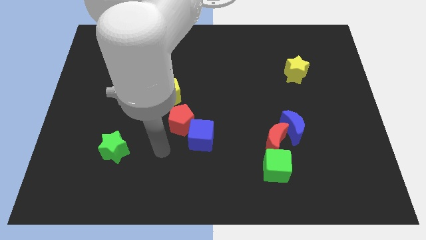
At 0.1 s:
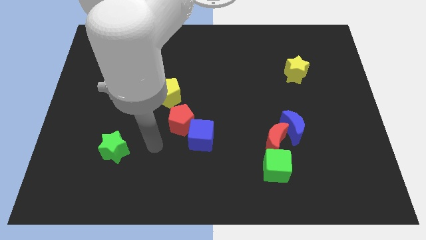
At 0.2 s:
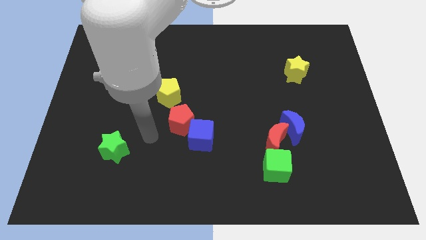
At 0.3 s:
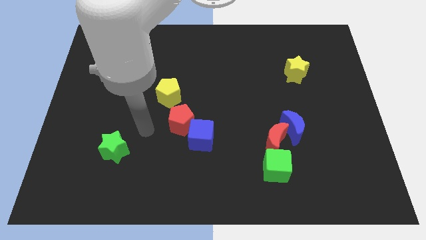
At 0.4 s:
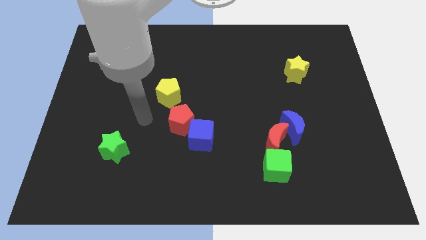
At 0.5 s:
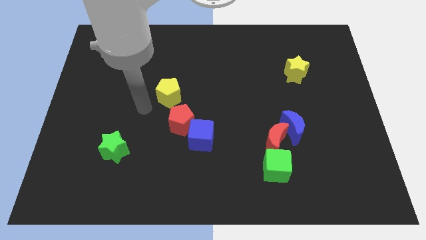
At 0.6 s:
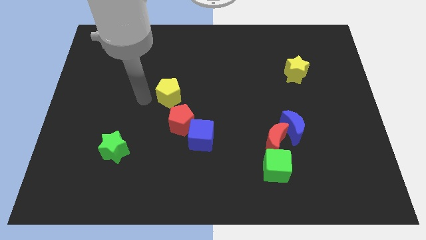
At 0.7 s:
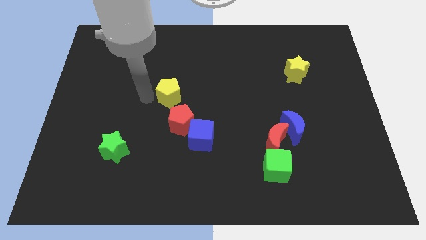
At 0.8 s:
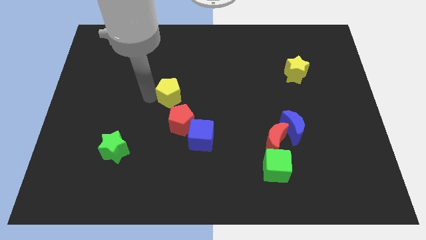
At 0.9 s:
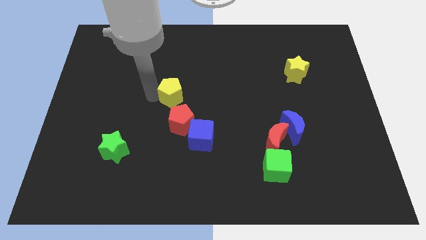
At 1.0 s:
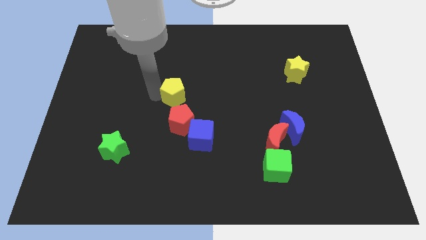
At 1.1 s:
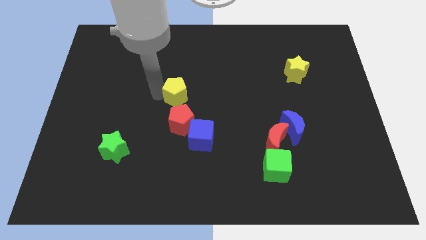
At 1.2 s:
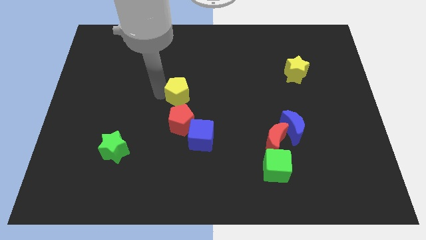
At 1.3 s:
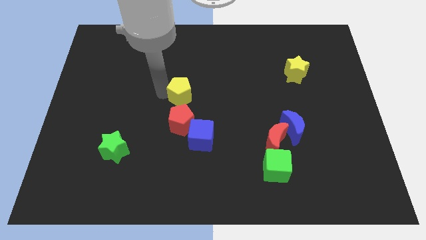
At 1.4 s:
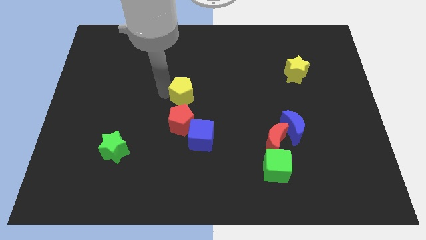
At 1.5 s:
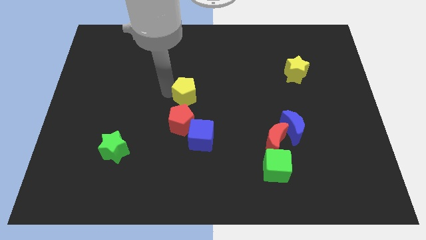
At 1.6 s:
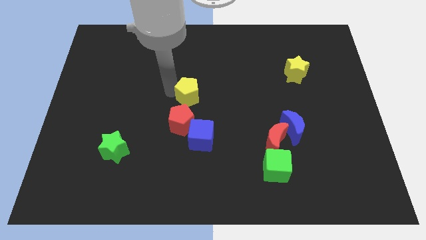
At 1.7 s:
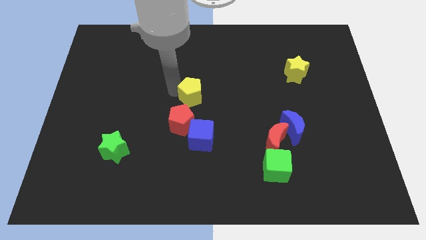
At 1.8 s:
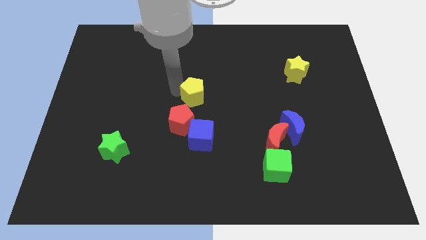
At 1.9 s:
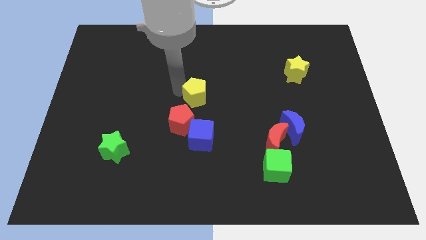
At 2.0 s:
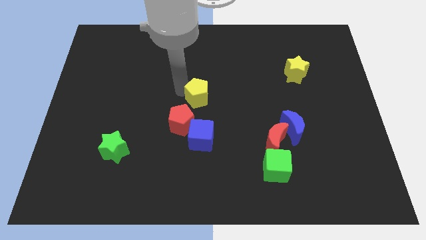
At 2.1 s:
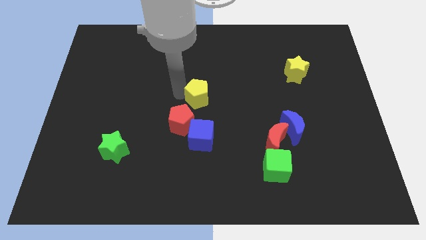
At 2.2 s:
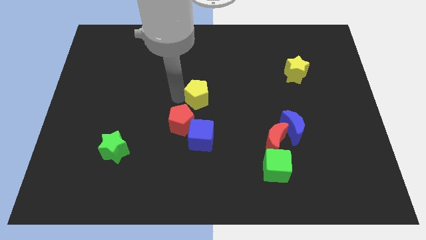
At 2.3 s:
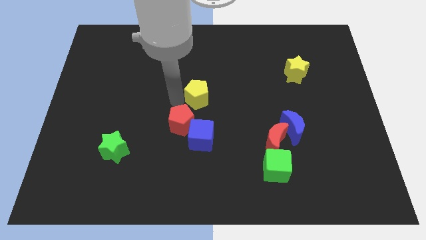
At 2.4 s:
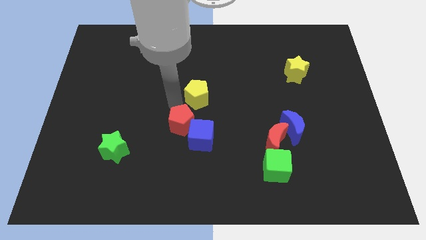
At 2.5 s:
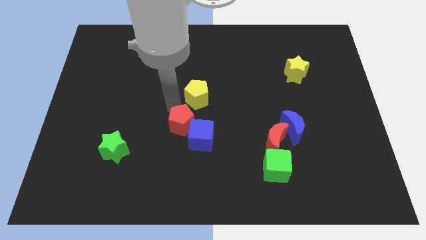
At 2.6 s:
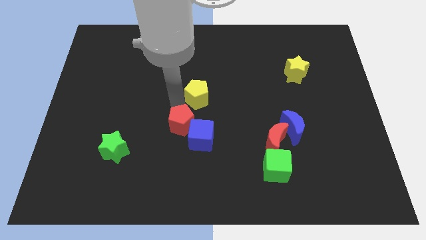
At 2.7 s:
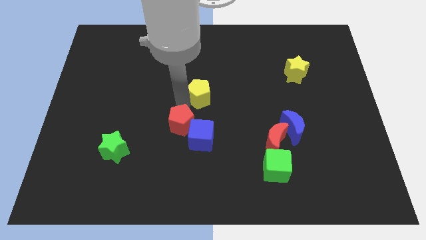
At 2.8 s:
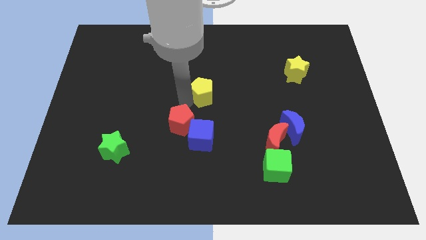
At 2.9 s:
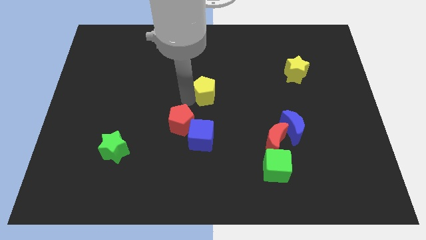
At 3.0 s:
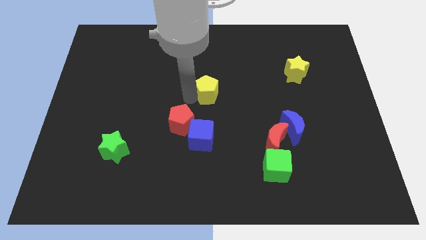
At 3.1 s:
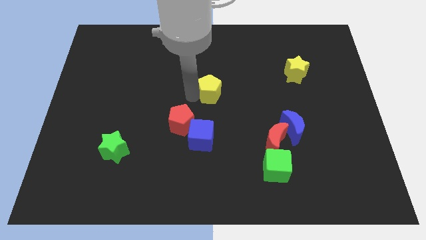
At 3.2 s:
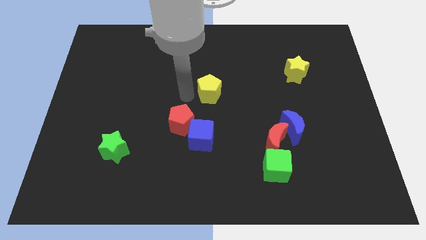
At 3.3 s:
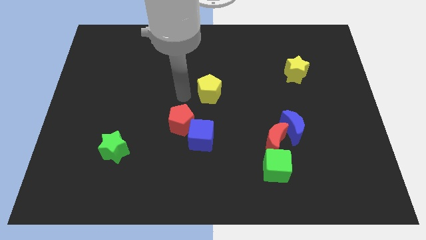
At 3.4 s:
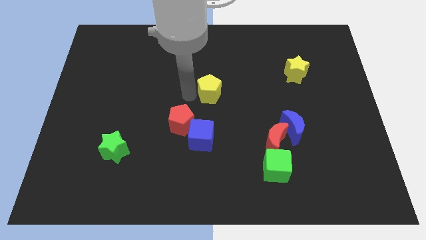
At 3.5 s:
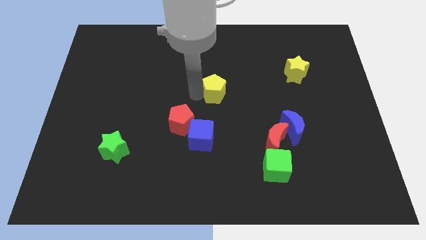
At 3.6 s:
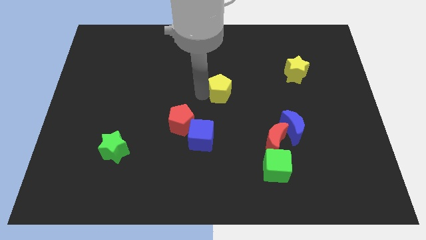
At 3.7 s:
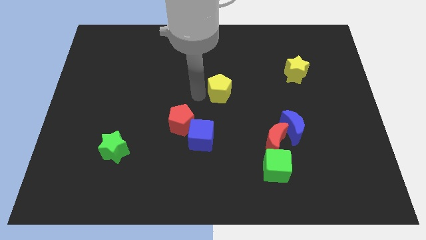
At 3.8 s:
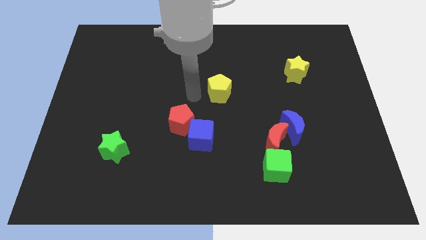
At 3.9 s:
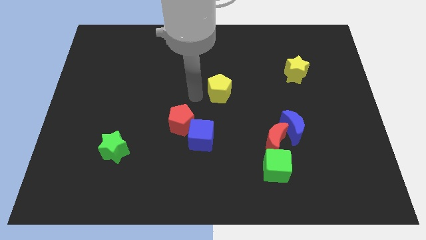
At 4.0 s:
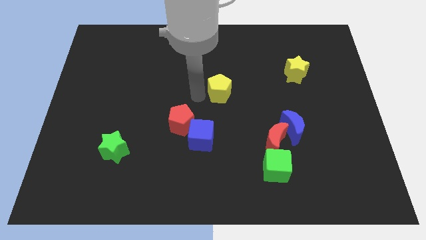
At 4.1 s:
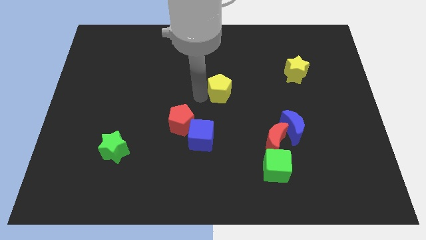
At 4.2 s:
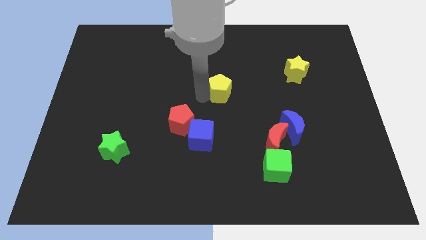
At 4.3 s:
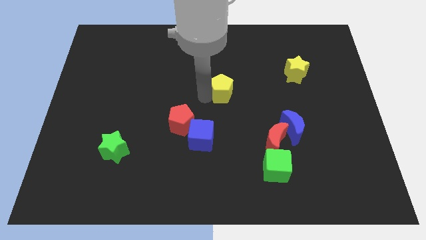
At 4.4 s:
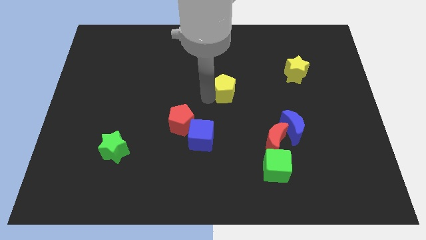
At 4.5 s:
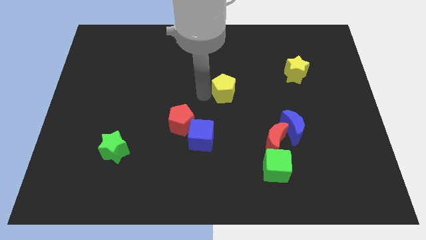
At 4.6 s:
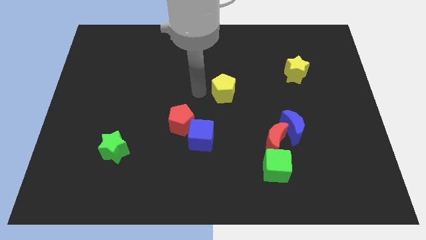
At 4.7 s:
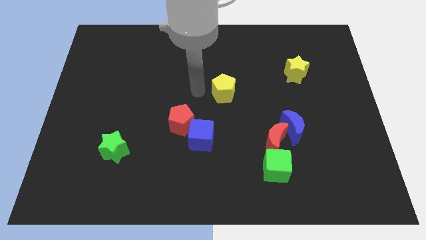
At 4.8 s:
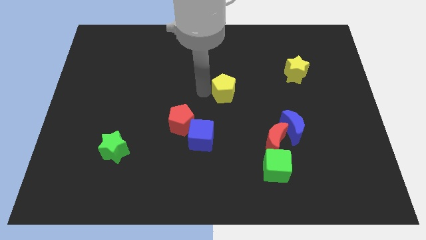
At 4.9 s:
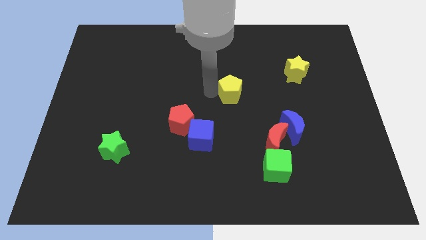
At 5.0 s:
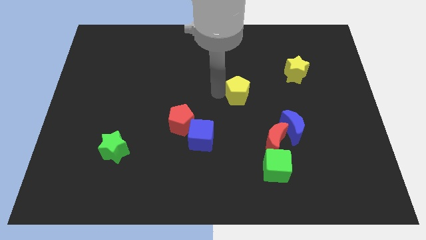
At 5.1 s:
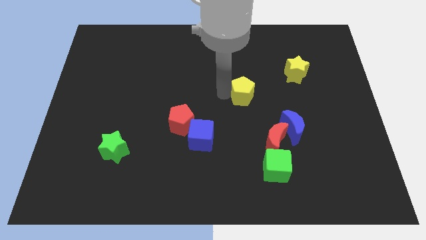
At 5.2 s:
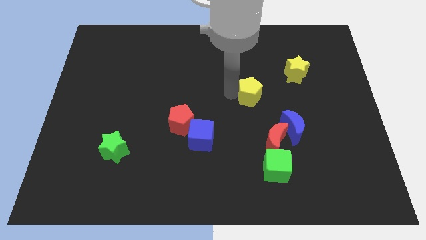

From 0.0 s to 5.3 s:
push the yellow pentagon to the top of the red moon

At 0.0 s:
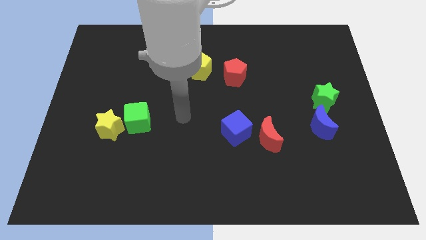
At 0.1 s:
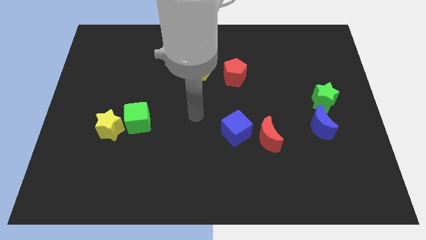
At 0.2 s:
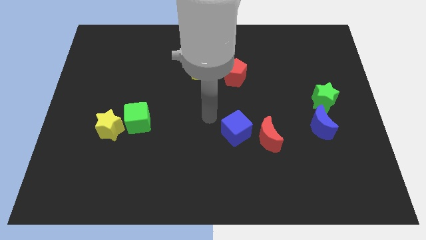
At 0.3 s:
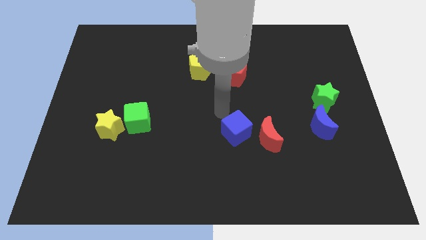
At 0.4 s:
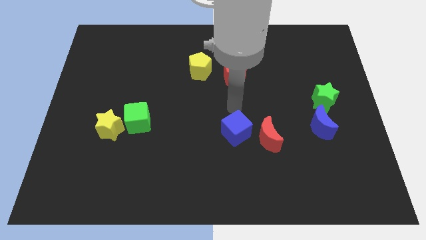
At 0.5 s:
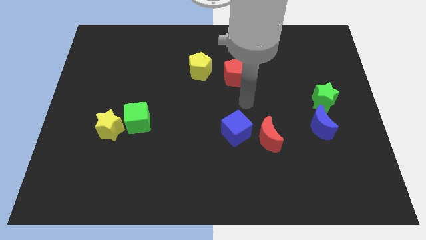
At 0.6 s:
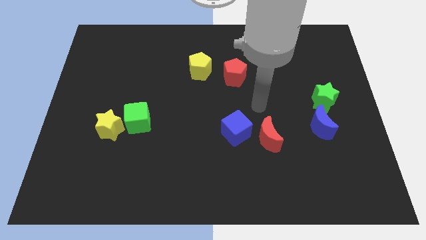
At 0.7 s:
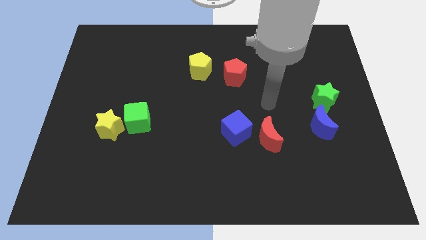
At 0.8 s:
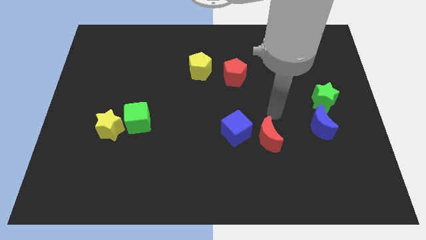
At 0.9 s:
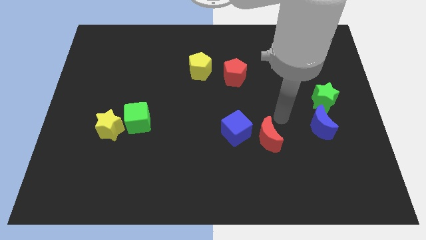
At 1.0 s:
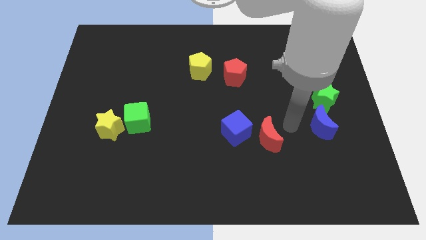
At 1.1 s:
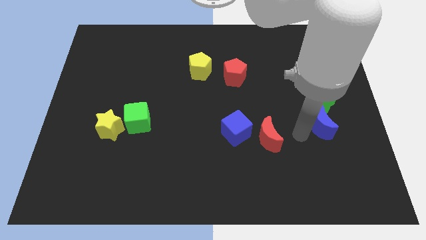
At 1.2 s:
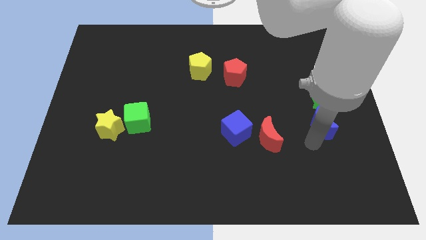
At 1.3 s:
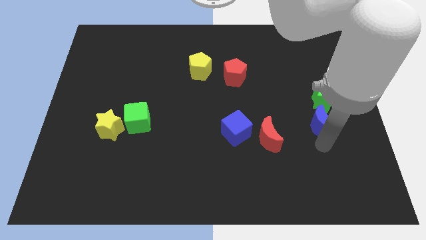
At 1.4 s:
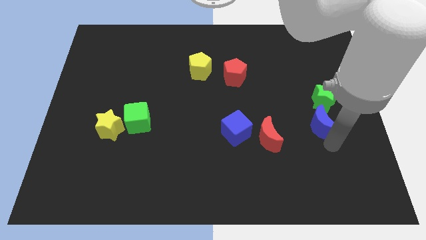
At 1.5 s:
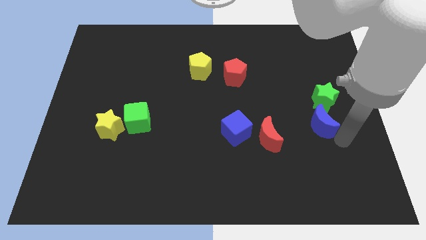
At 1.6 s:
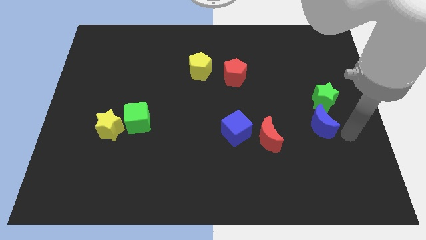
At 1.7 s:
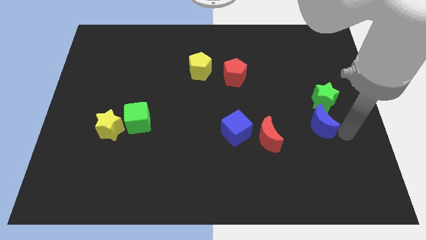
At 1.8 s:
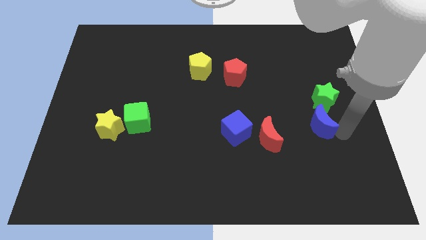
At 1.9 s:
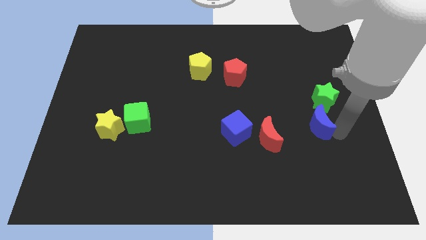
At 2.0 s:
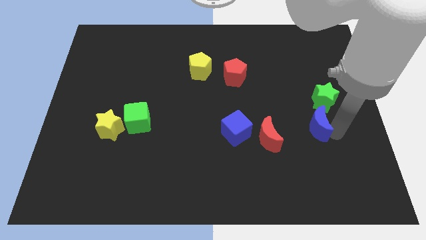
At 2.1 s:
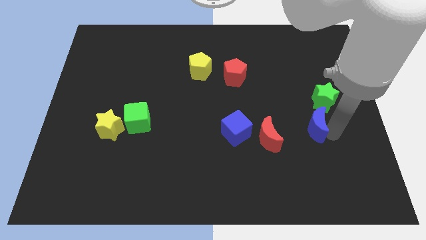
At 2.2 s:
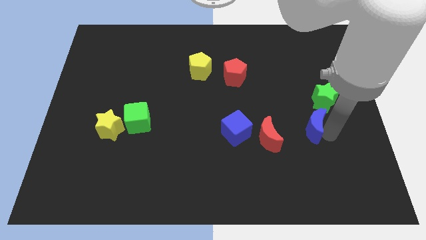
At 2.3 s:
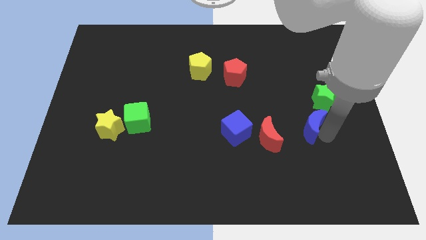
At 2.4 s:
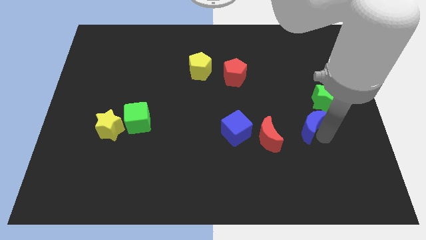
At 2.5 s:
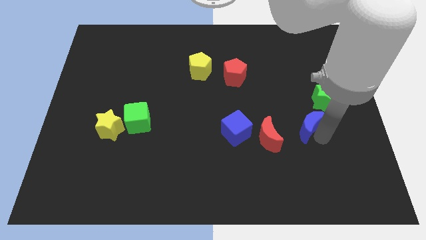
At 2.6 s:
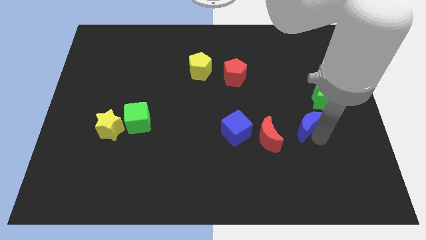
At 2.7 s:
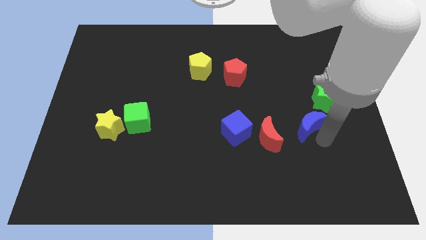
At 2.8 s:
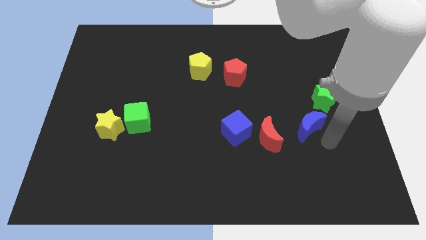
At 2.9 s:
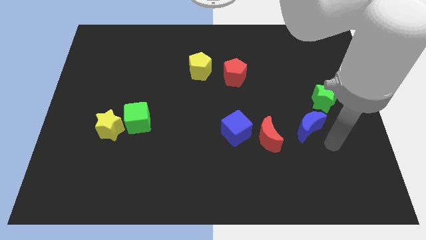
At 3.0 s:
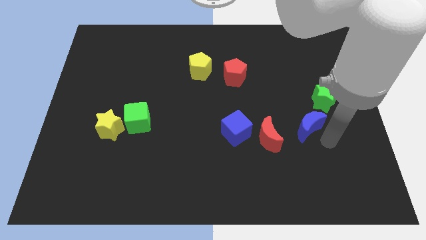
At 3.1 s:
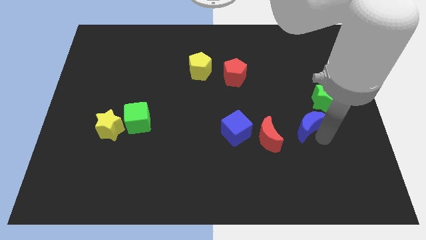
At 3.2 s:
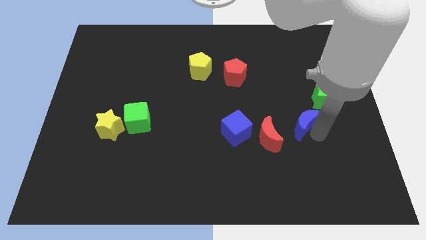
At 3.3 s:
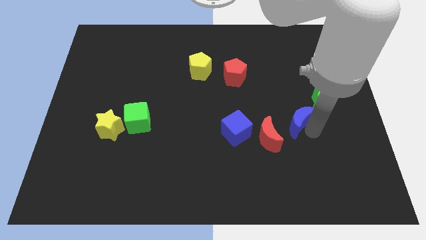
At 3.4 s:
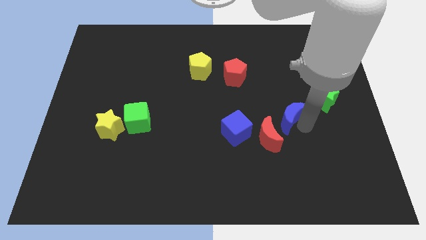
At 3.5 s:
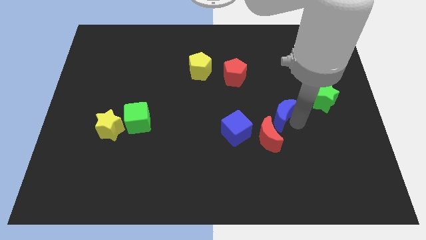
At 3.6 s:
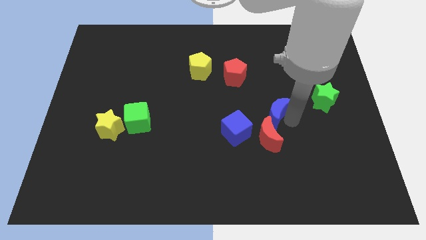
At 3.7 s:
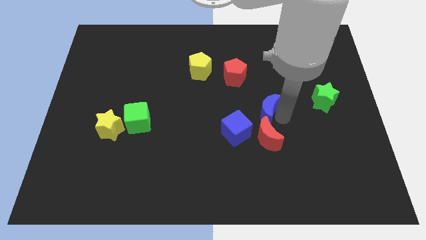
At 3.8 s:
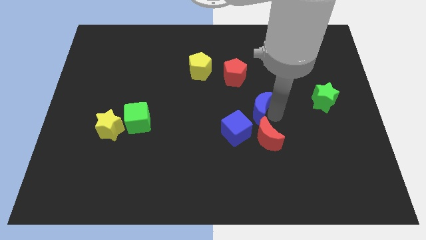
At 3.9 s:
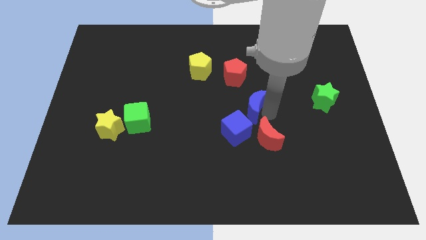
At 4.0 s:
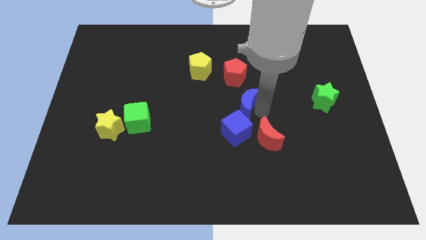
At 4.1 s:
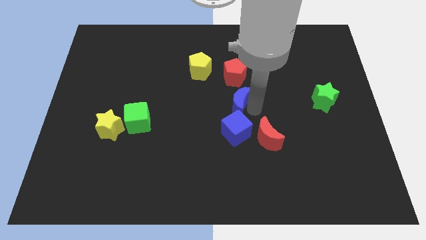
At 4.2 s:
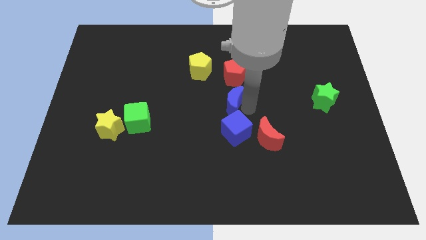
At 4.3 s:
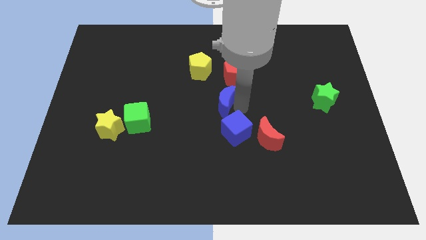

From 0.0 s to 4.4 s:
push the blue moon diagonally down and to the left of the red pentagon
